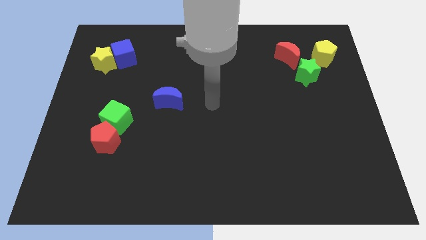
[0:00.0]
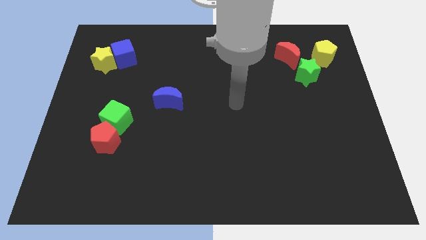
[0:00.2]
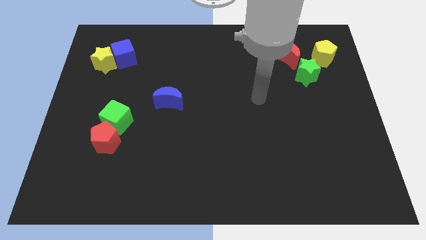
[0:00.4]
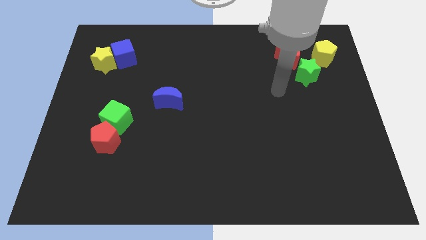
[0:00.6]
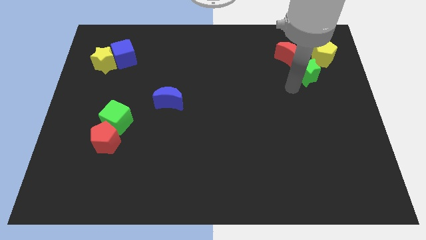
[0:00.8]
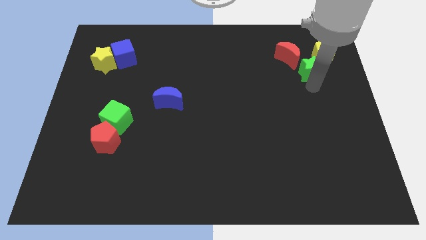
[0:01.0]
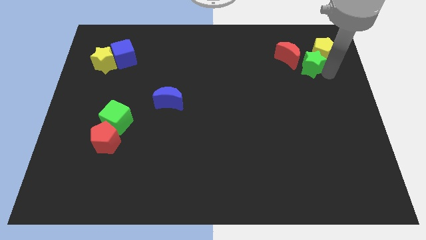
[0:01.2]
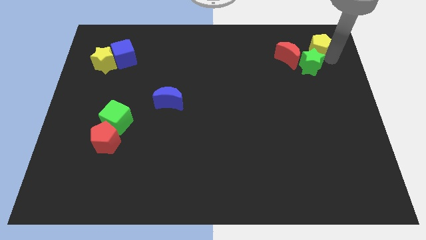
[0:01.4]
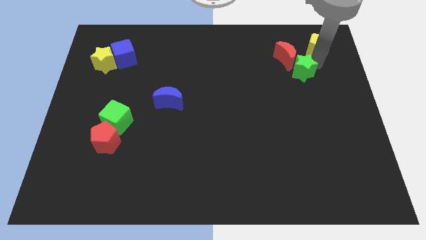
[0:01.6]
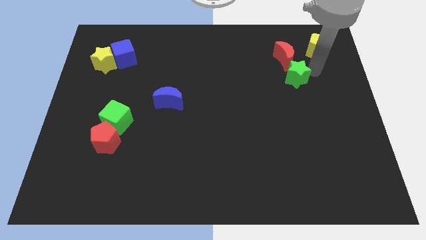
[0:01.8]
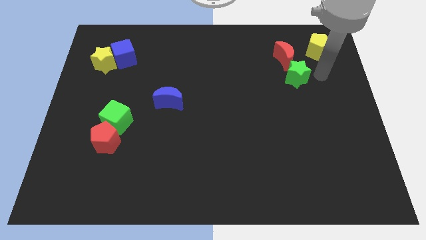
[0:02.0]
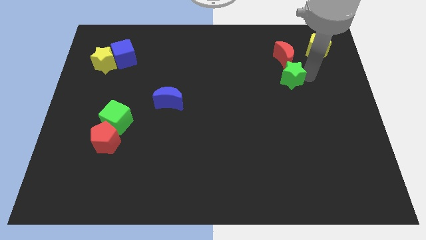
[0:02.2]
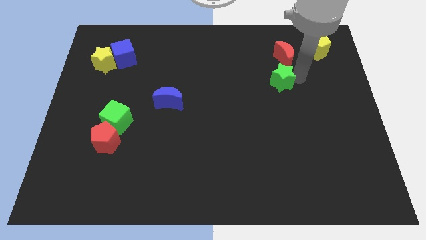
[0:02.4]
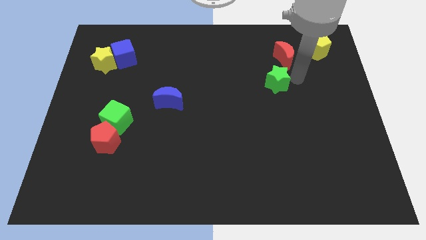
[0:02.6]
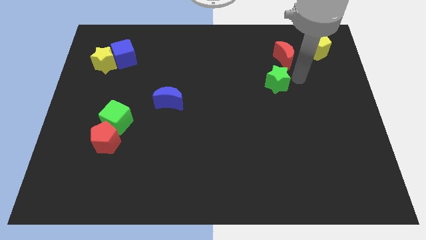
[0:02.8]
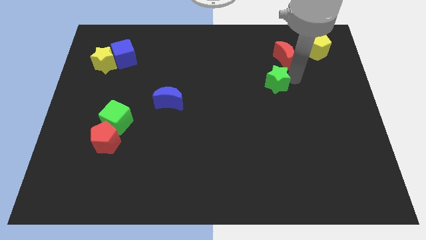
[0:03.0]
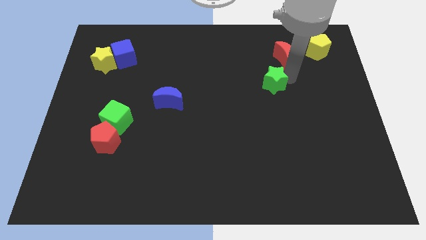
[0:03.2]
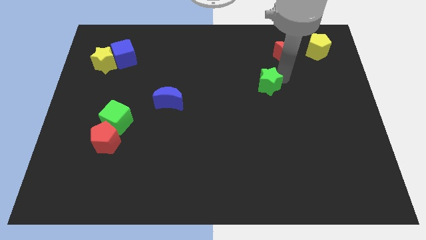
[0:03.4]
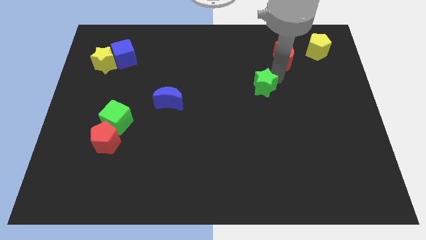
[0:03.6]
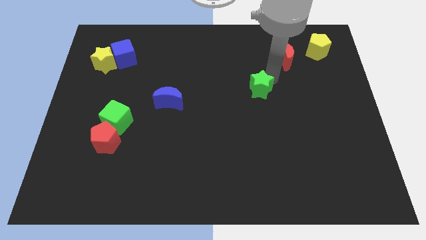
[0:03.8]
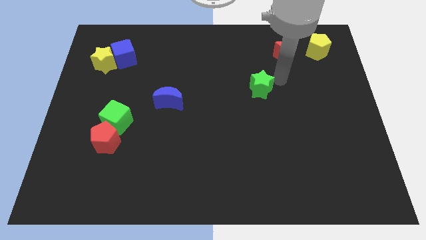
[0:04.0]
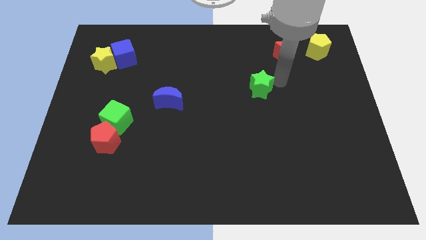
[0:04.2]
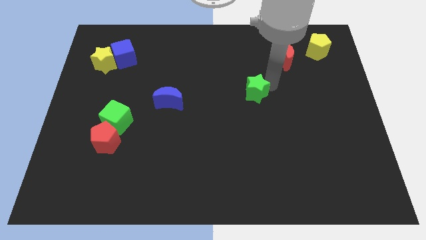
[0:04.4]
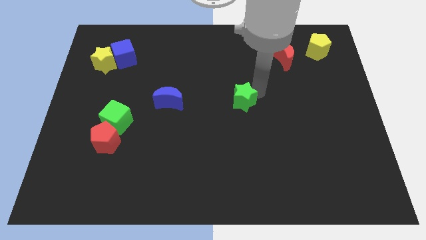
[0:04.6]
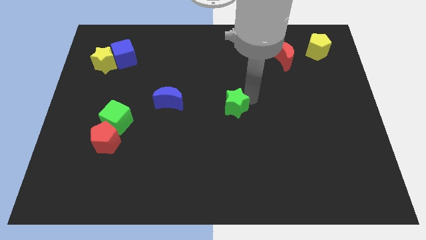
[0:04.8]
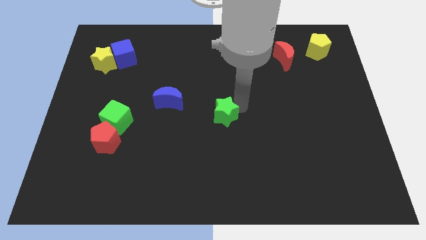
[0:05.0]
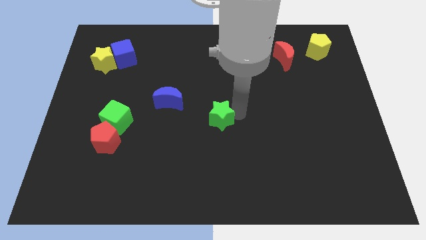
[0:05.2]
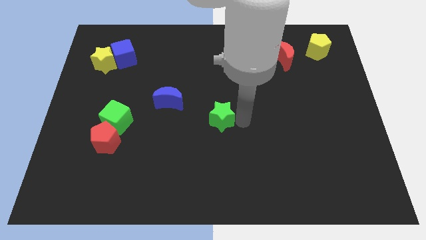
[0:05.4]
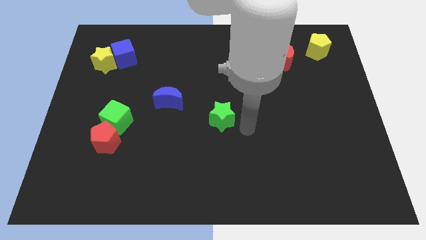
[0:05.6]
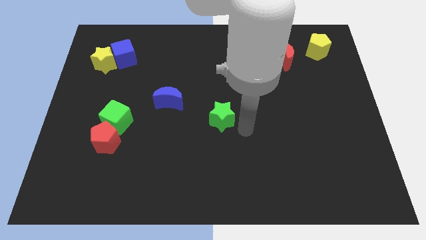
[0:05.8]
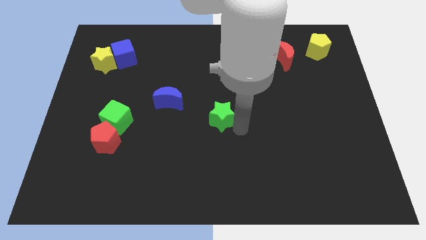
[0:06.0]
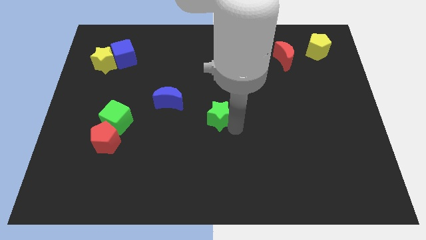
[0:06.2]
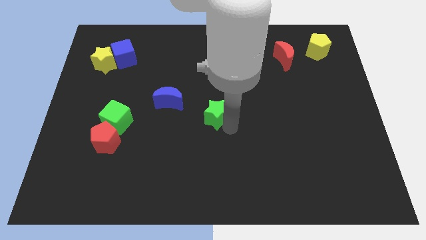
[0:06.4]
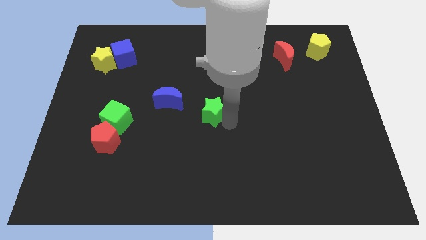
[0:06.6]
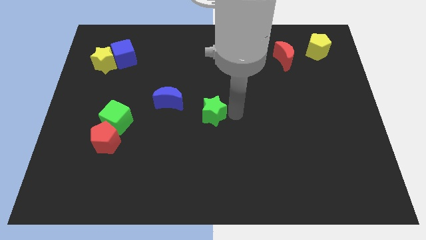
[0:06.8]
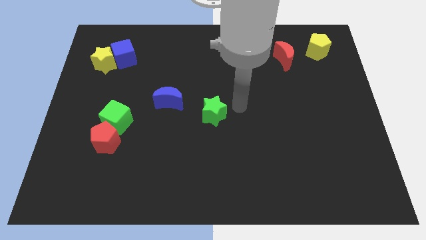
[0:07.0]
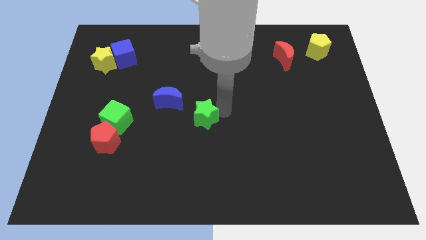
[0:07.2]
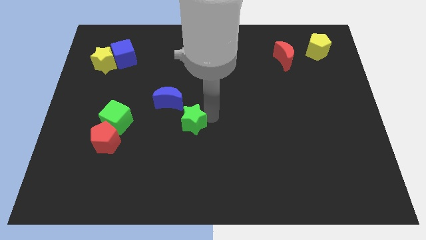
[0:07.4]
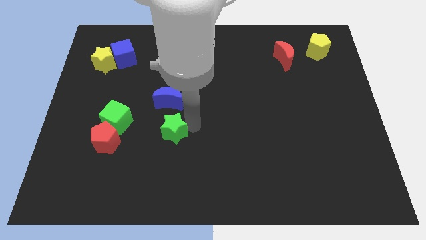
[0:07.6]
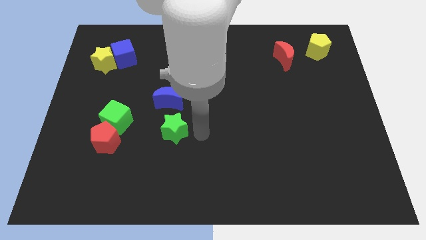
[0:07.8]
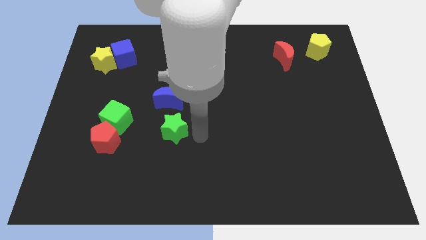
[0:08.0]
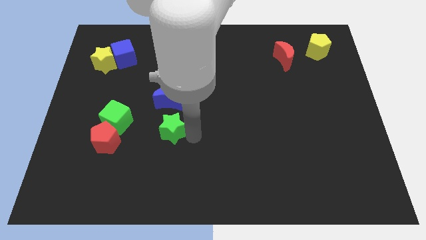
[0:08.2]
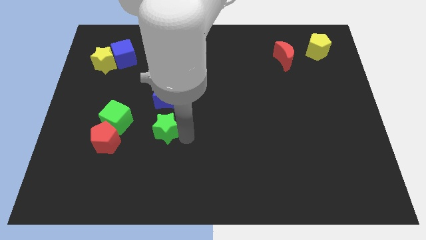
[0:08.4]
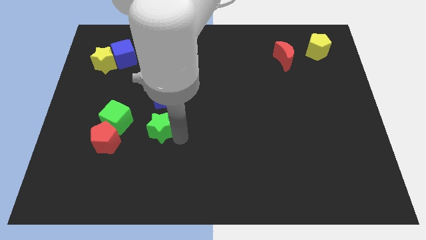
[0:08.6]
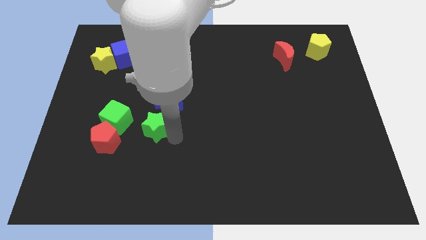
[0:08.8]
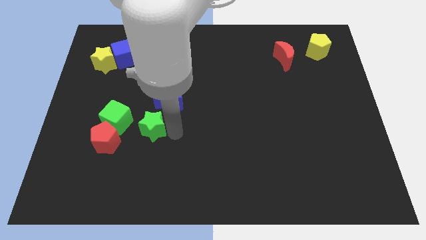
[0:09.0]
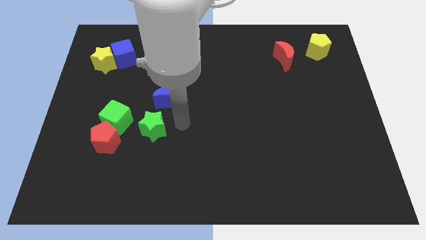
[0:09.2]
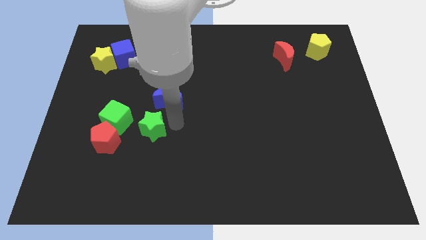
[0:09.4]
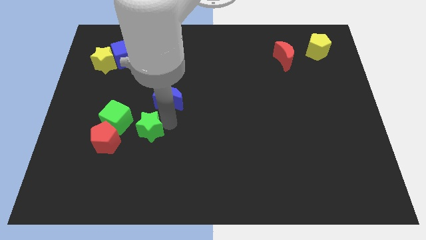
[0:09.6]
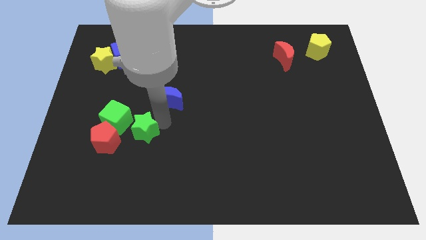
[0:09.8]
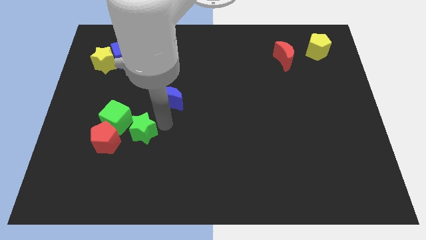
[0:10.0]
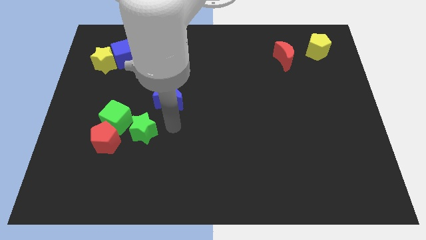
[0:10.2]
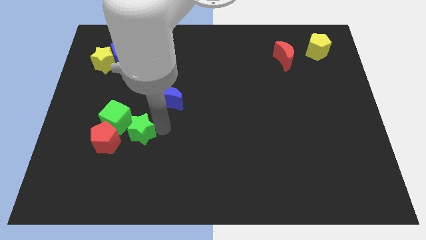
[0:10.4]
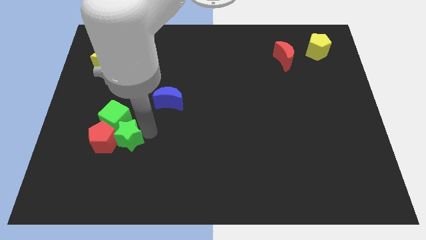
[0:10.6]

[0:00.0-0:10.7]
slide the green star to the red pentagon

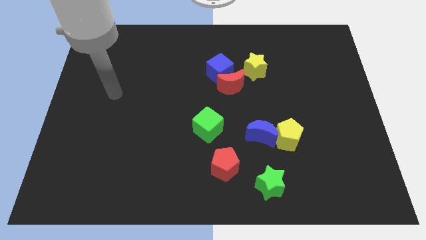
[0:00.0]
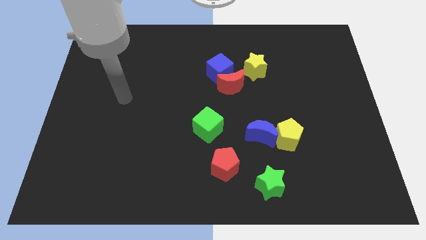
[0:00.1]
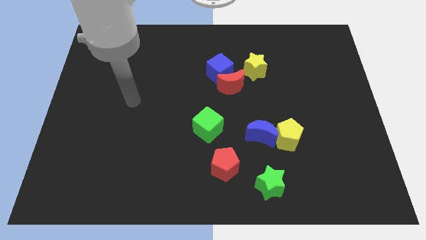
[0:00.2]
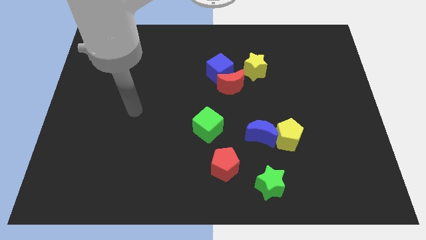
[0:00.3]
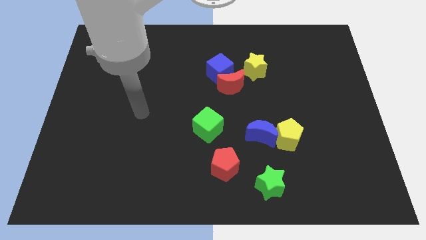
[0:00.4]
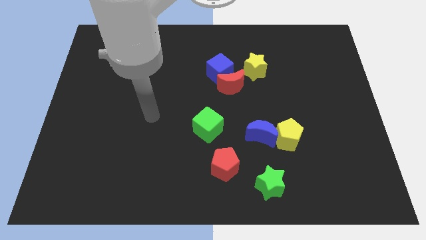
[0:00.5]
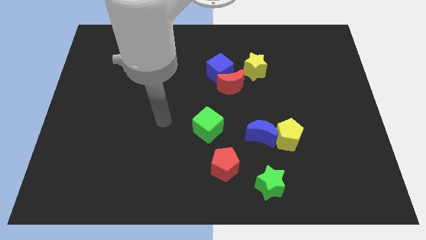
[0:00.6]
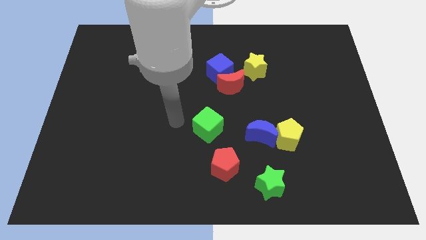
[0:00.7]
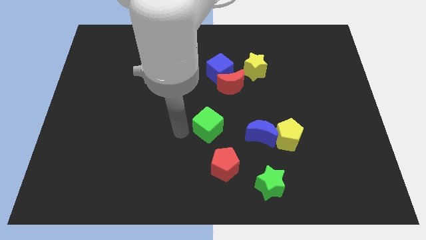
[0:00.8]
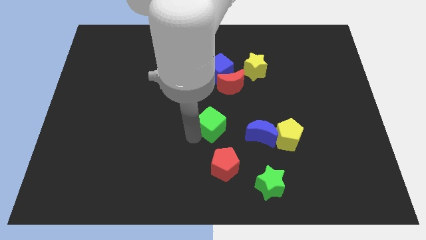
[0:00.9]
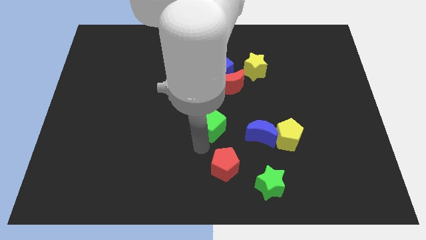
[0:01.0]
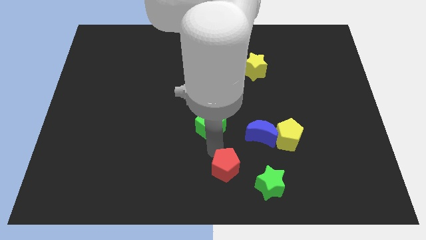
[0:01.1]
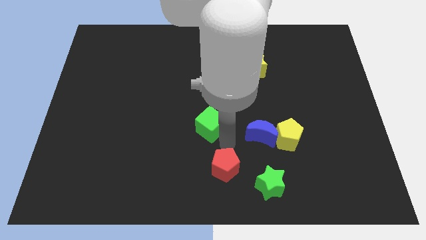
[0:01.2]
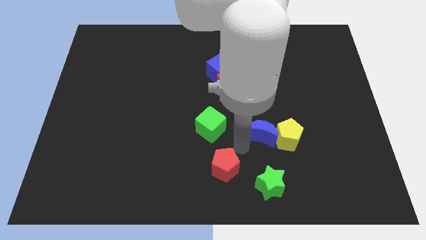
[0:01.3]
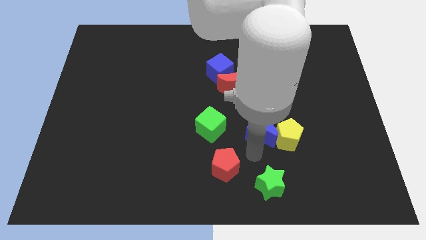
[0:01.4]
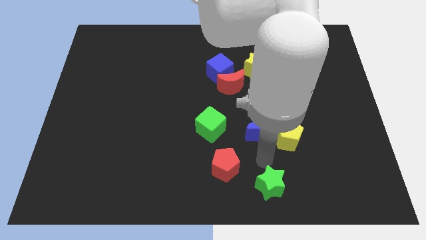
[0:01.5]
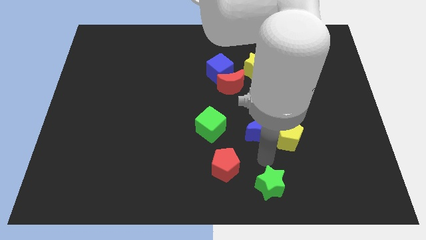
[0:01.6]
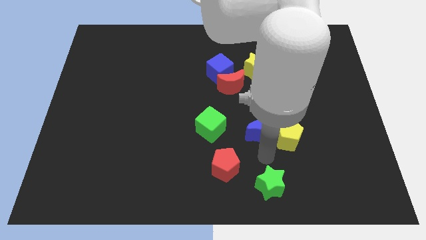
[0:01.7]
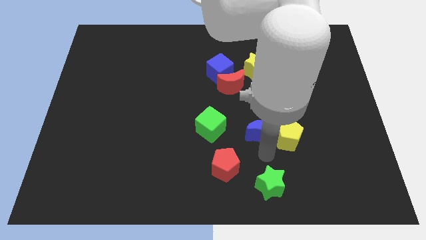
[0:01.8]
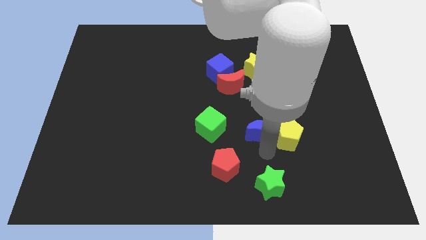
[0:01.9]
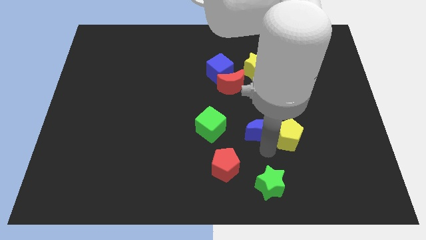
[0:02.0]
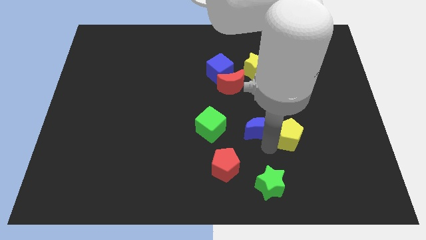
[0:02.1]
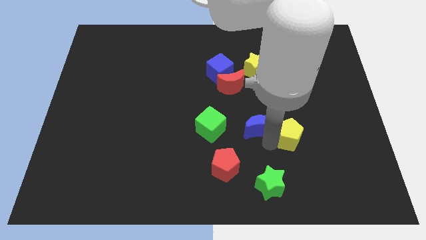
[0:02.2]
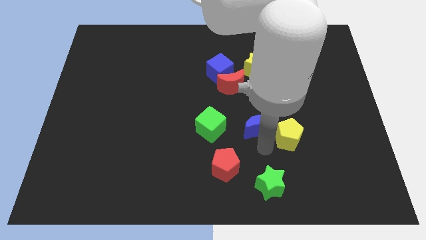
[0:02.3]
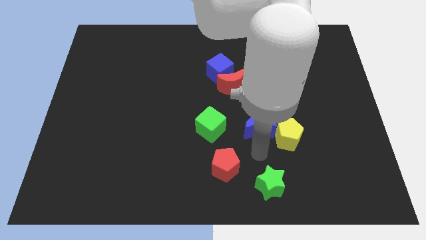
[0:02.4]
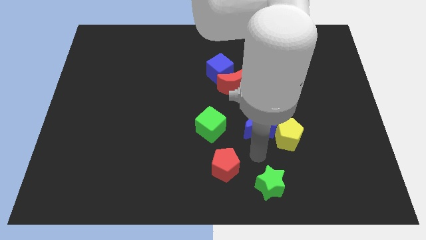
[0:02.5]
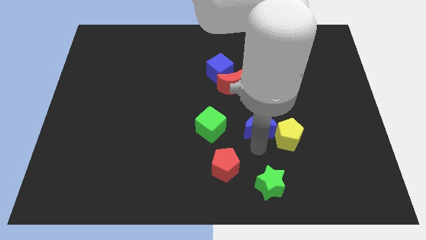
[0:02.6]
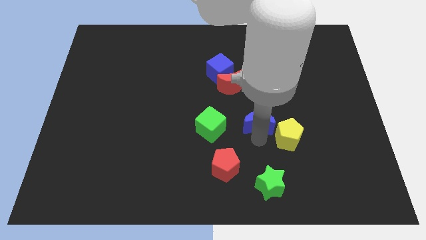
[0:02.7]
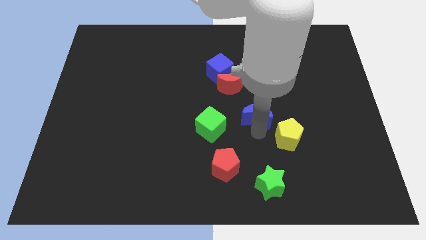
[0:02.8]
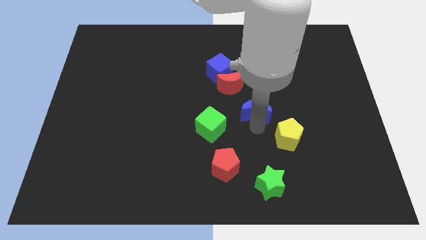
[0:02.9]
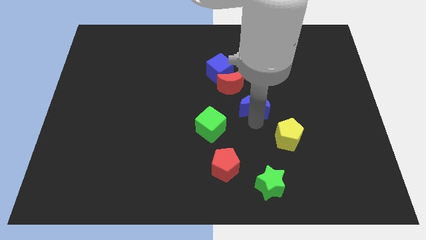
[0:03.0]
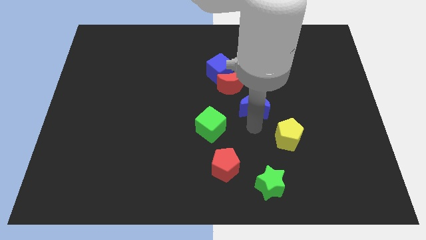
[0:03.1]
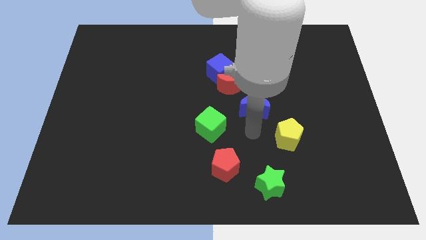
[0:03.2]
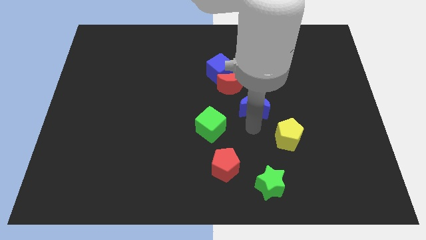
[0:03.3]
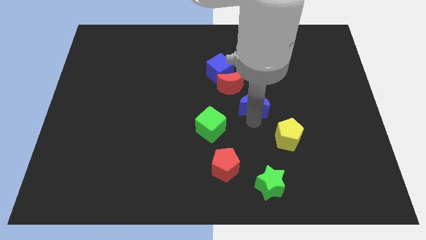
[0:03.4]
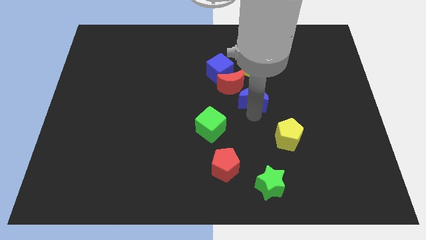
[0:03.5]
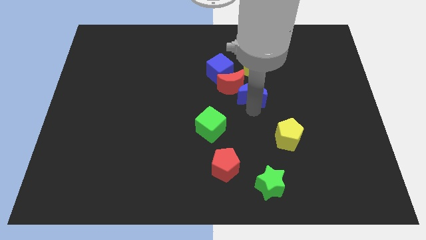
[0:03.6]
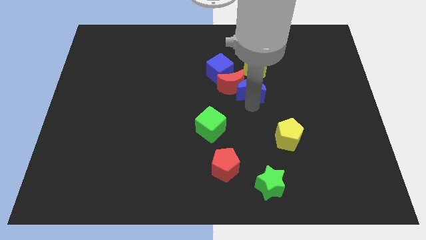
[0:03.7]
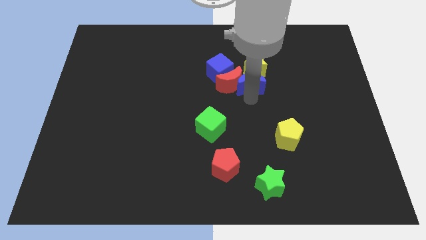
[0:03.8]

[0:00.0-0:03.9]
slide the blue moon to the yellow star
